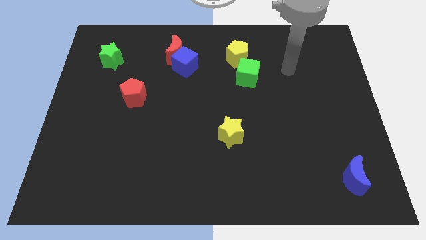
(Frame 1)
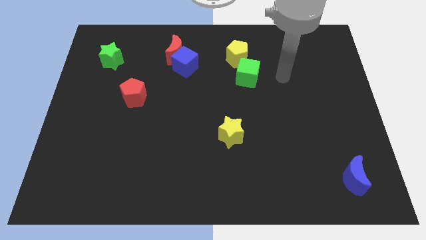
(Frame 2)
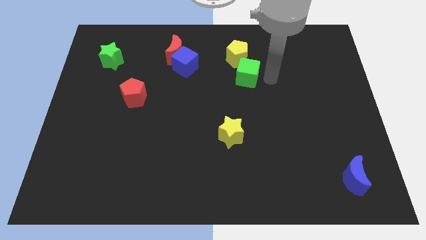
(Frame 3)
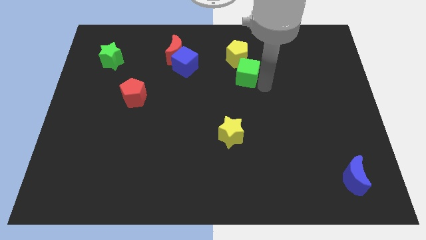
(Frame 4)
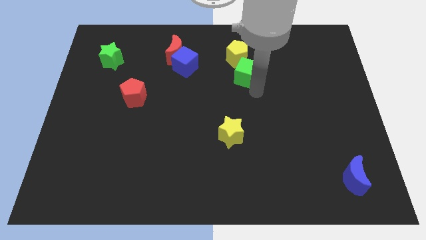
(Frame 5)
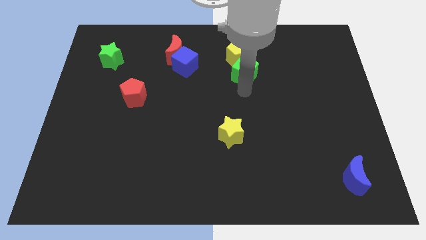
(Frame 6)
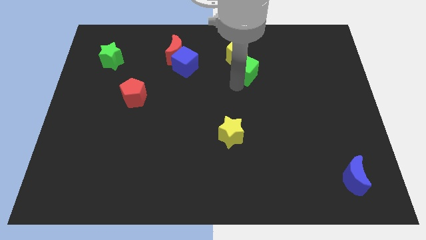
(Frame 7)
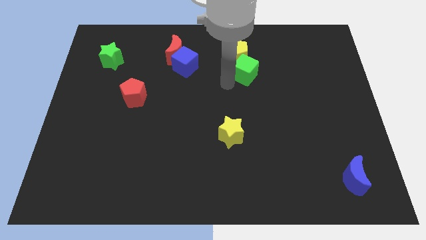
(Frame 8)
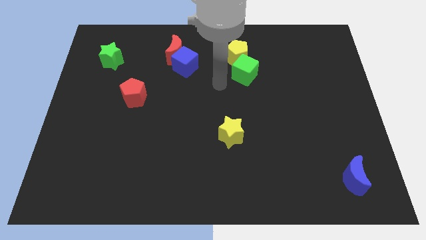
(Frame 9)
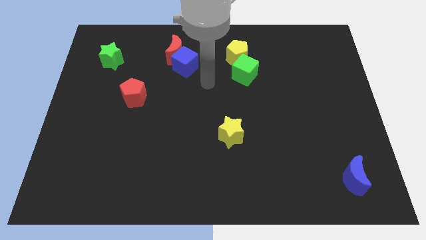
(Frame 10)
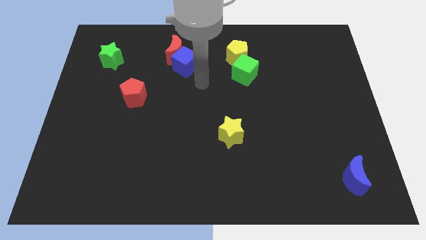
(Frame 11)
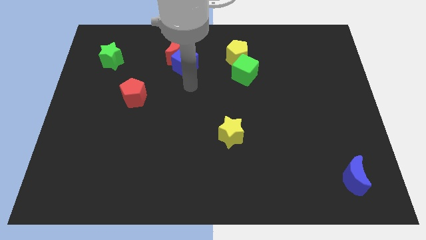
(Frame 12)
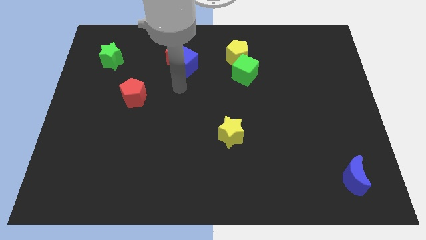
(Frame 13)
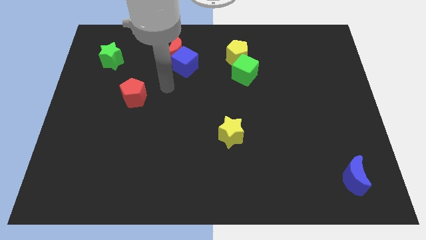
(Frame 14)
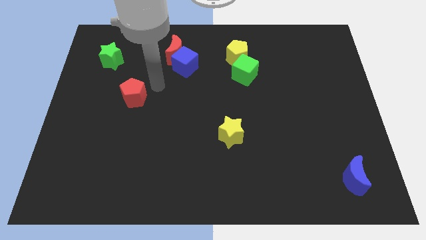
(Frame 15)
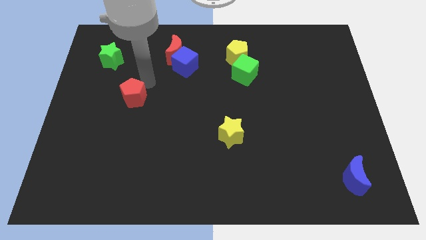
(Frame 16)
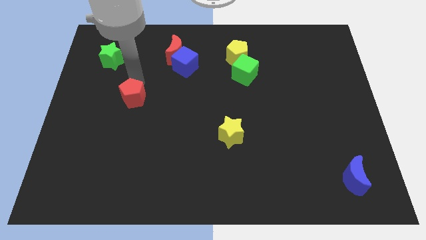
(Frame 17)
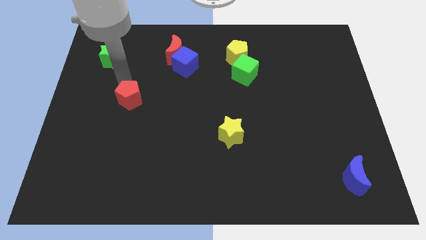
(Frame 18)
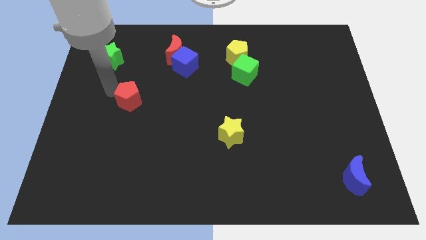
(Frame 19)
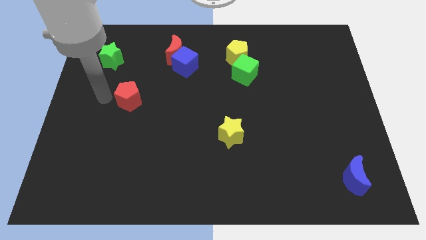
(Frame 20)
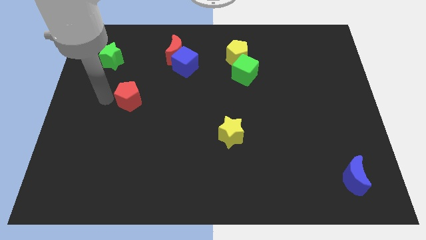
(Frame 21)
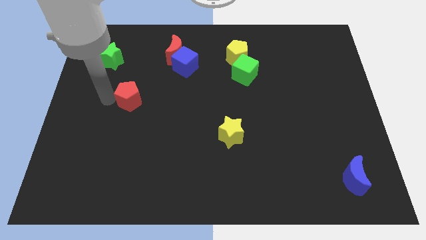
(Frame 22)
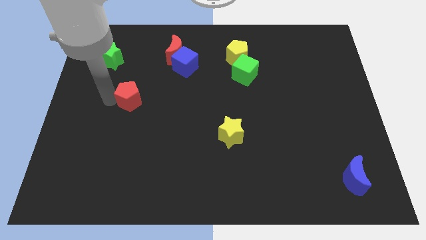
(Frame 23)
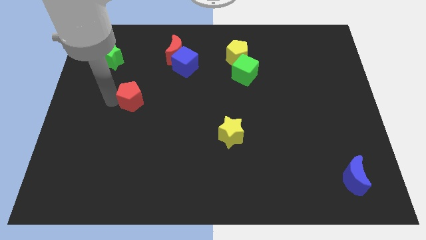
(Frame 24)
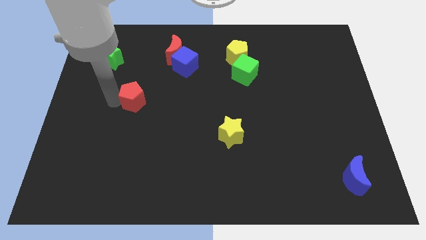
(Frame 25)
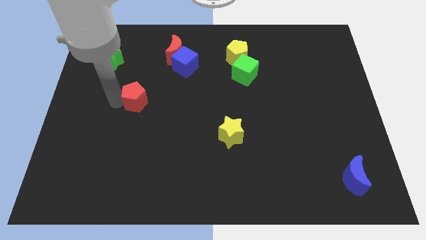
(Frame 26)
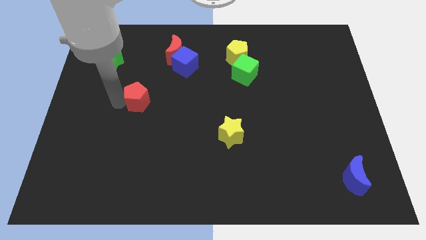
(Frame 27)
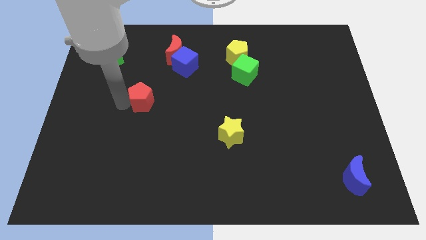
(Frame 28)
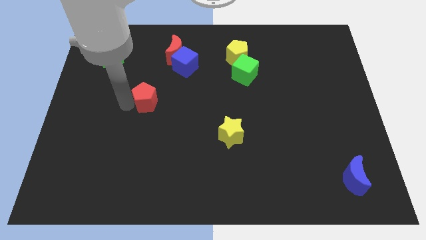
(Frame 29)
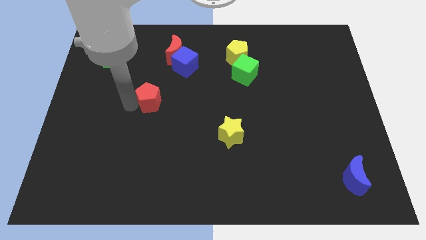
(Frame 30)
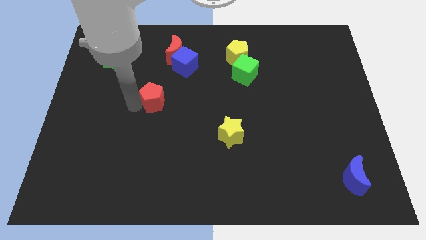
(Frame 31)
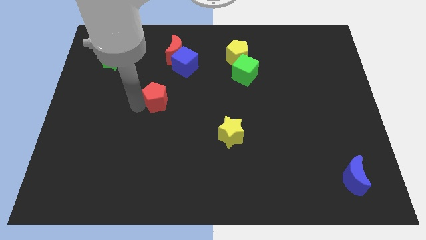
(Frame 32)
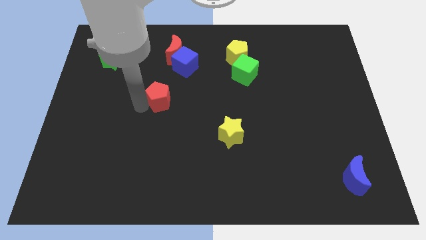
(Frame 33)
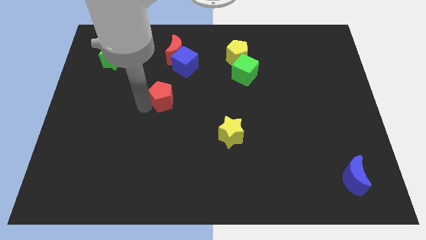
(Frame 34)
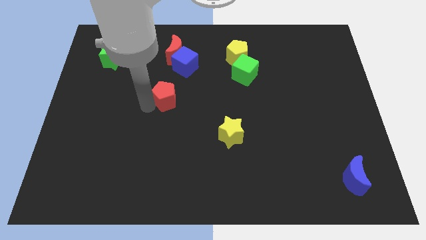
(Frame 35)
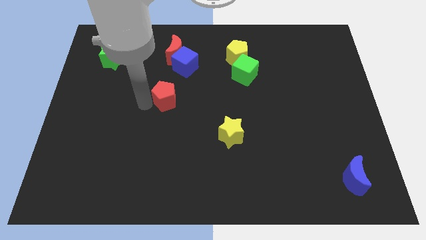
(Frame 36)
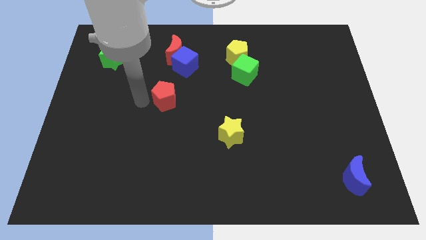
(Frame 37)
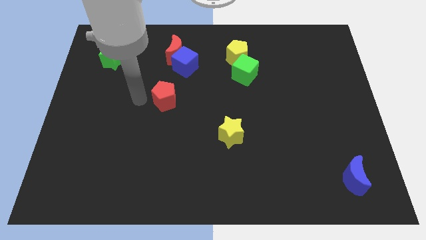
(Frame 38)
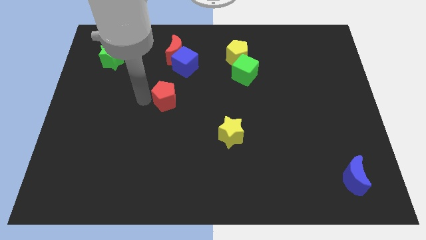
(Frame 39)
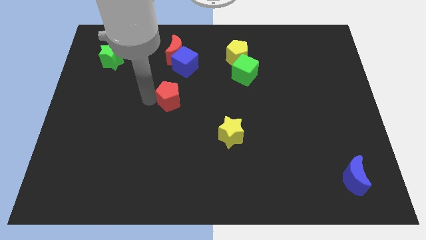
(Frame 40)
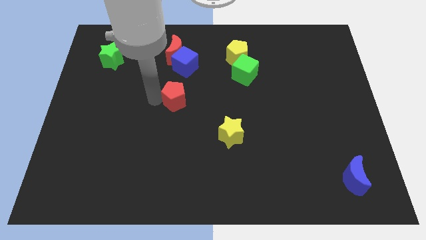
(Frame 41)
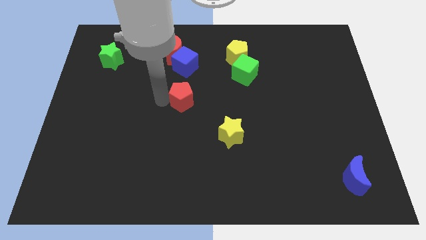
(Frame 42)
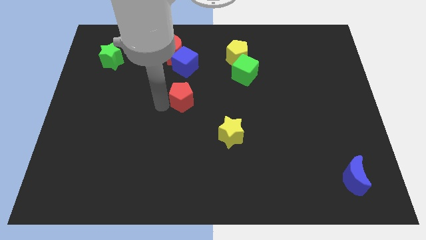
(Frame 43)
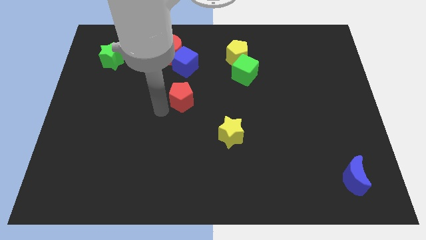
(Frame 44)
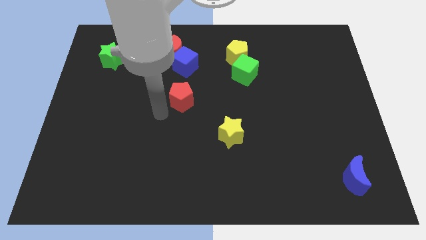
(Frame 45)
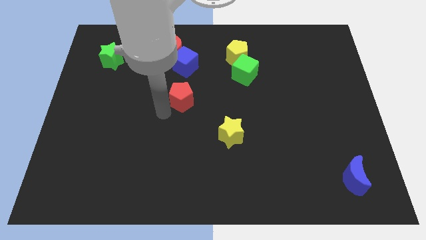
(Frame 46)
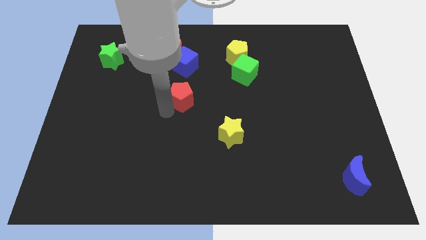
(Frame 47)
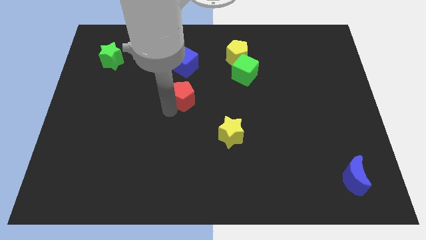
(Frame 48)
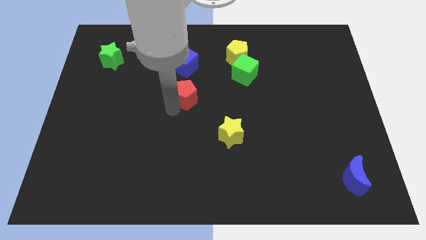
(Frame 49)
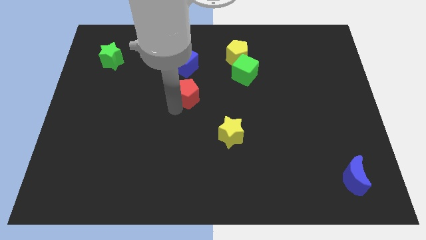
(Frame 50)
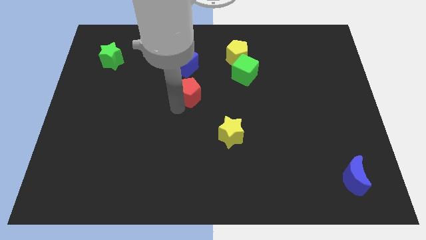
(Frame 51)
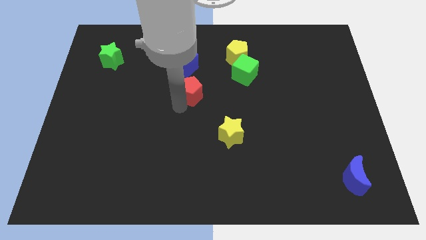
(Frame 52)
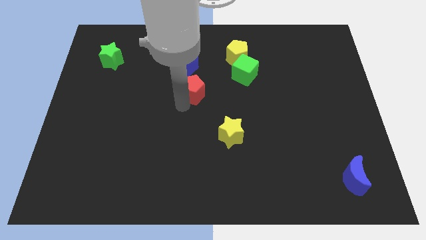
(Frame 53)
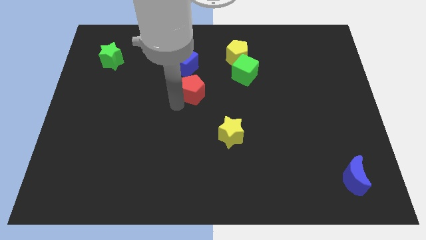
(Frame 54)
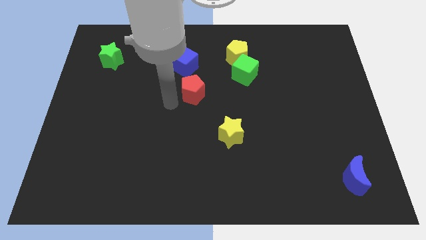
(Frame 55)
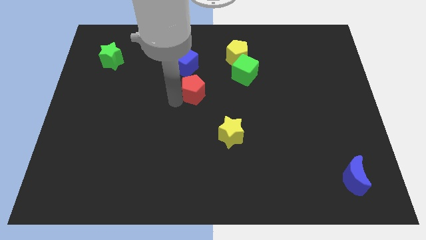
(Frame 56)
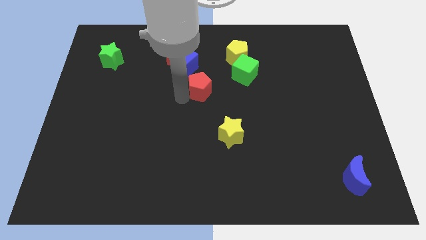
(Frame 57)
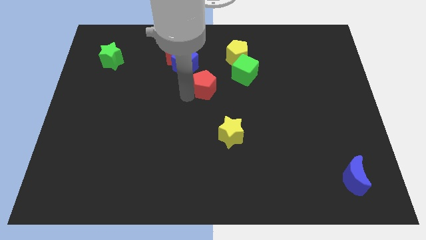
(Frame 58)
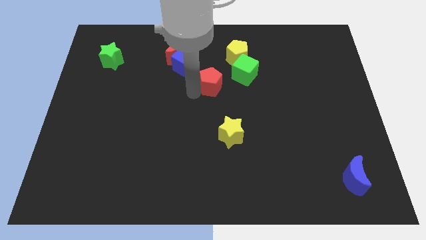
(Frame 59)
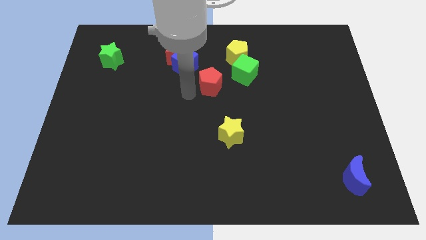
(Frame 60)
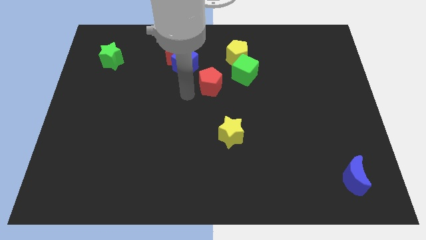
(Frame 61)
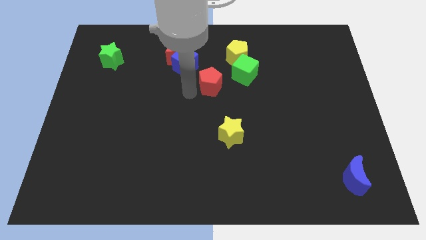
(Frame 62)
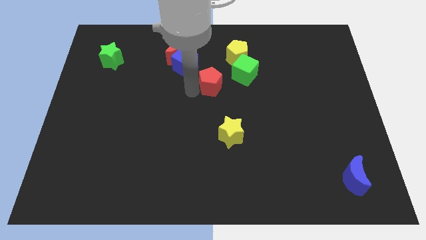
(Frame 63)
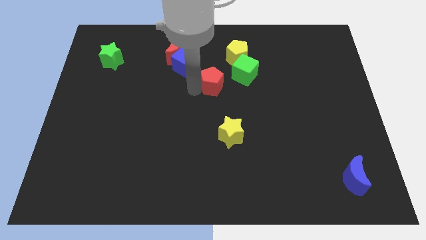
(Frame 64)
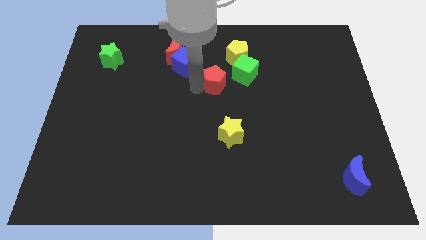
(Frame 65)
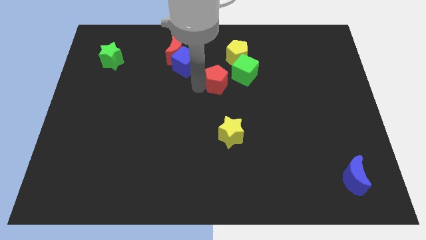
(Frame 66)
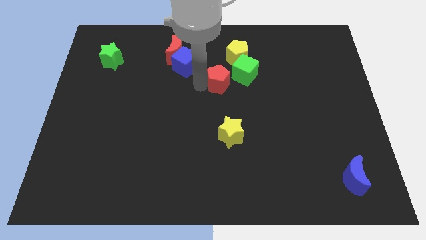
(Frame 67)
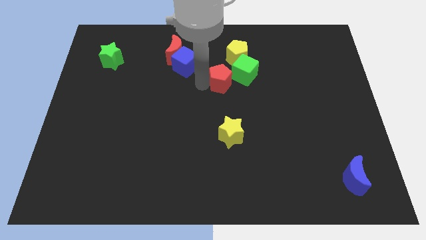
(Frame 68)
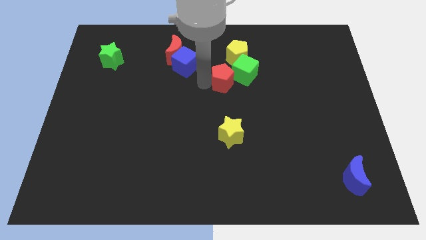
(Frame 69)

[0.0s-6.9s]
push the red pentagon to the green cube

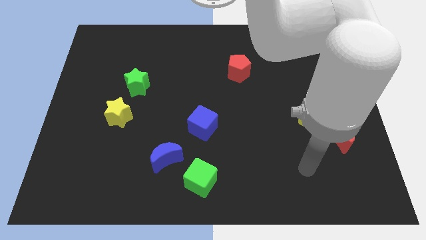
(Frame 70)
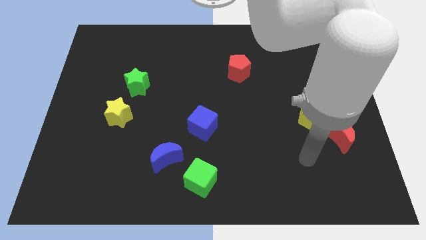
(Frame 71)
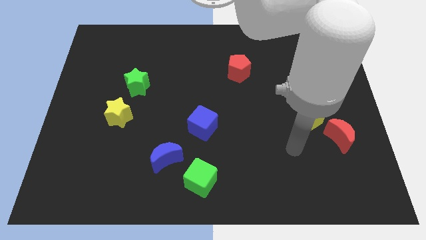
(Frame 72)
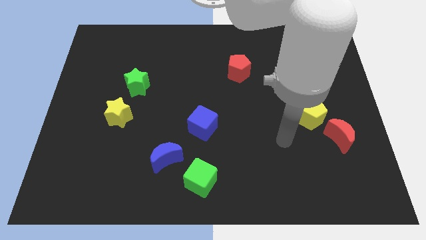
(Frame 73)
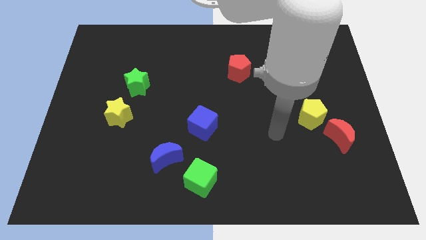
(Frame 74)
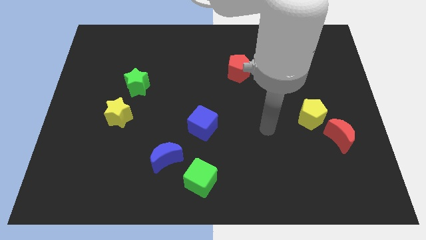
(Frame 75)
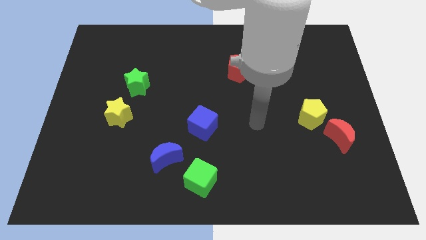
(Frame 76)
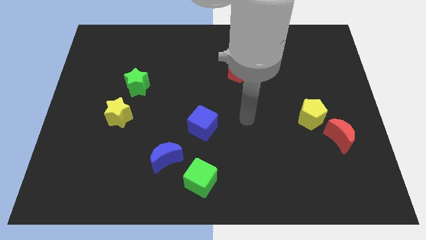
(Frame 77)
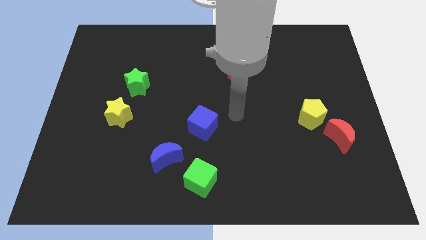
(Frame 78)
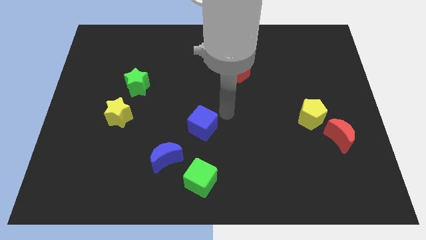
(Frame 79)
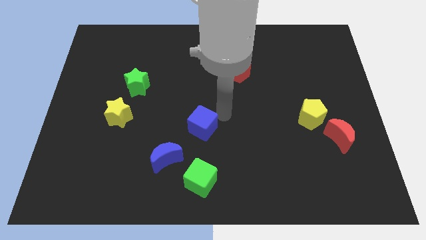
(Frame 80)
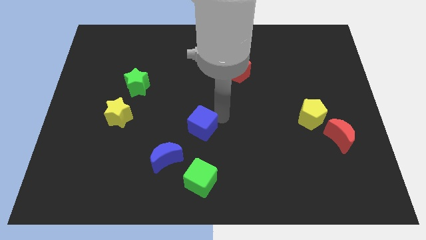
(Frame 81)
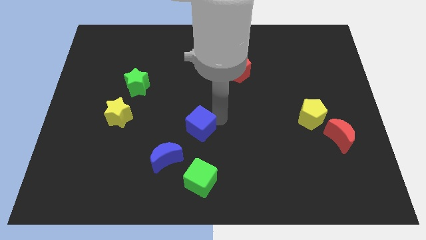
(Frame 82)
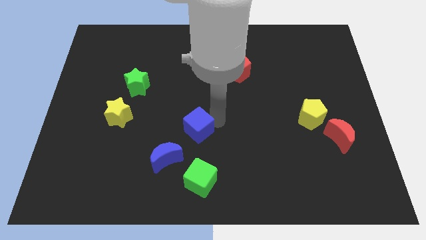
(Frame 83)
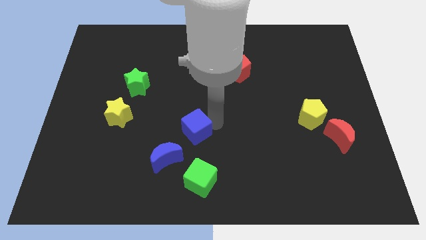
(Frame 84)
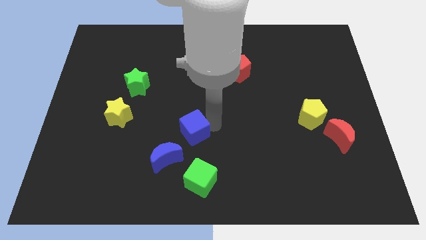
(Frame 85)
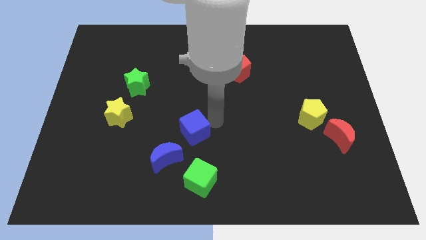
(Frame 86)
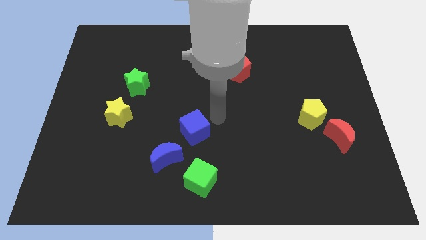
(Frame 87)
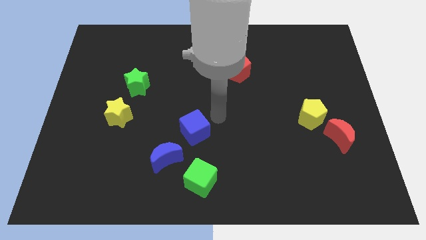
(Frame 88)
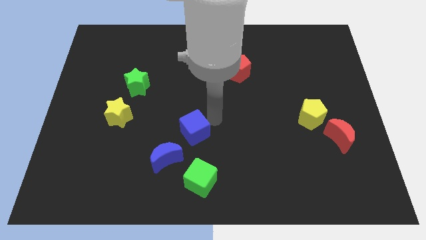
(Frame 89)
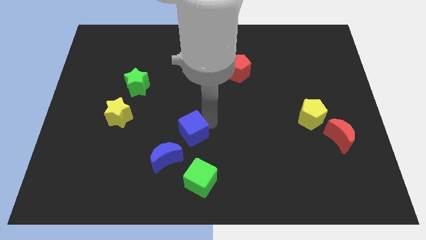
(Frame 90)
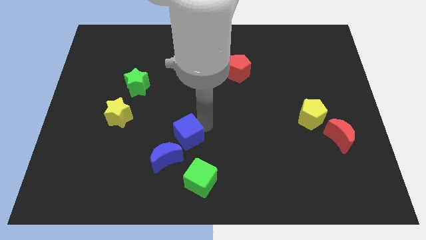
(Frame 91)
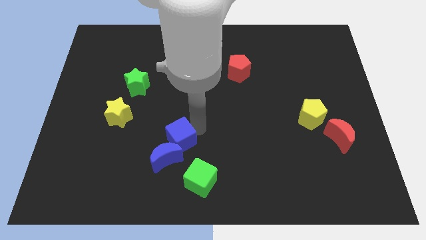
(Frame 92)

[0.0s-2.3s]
put the blue cube close to the blue moon
